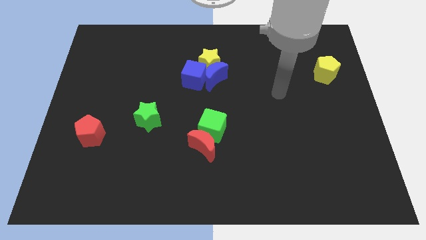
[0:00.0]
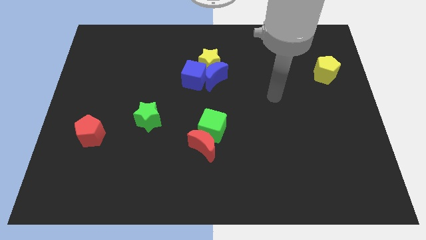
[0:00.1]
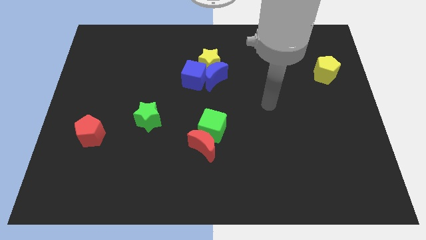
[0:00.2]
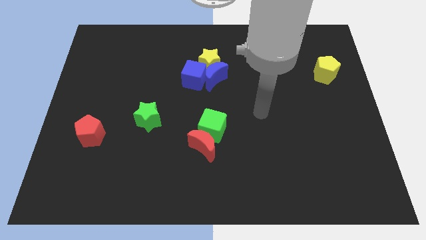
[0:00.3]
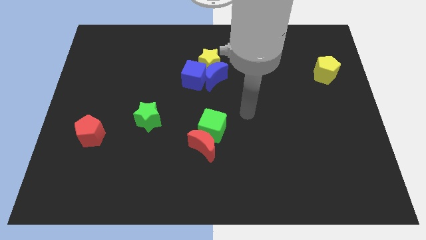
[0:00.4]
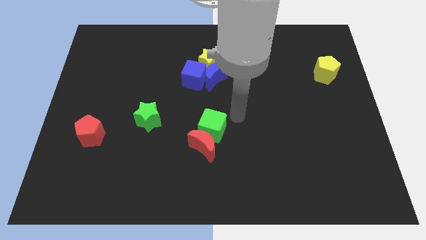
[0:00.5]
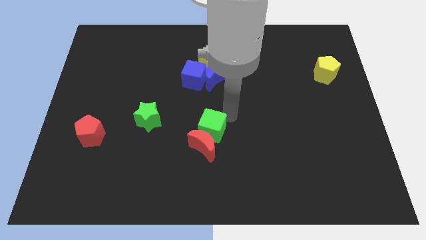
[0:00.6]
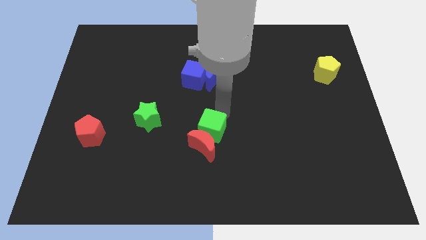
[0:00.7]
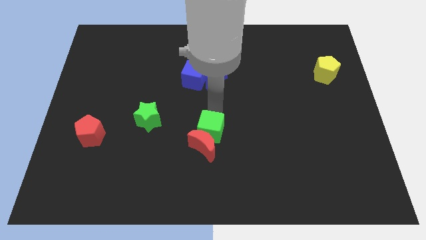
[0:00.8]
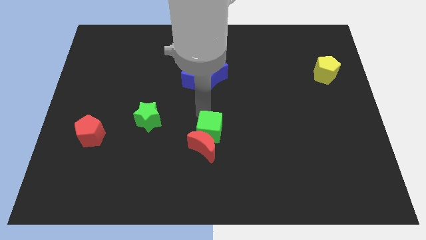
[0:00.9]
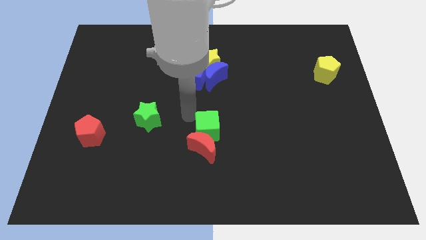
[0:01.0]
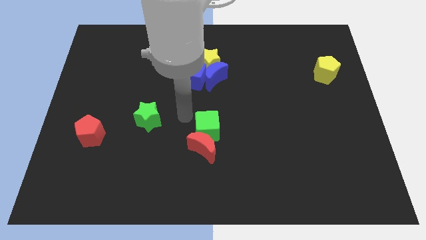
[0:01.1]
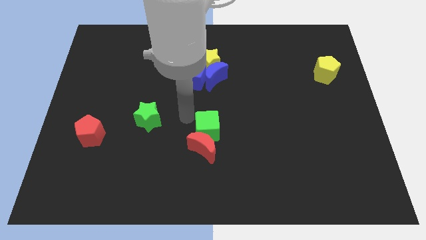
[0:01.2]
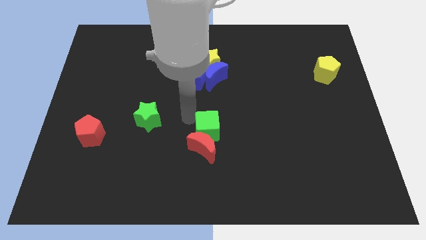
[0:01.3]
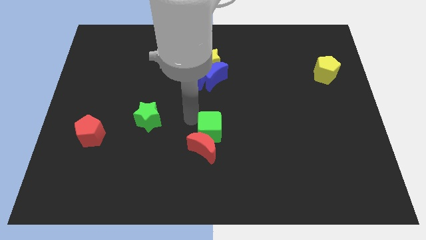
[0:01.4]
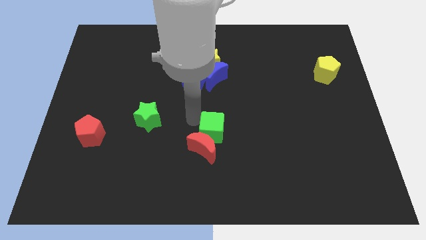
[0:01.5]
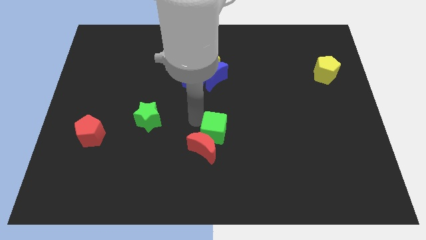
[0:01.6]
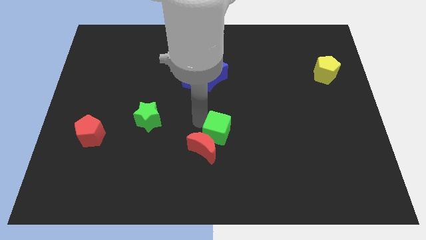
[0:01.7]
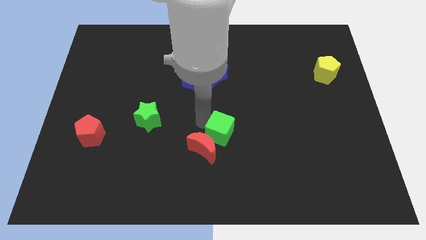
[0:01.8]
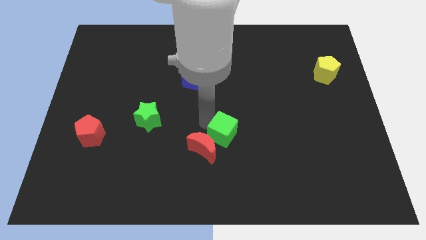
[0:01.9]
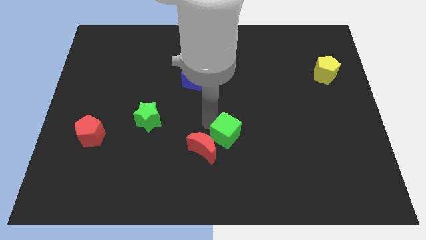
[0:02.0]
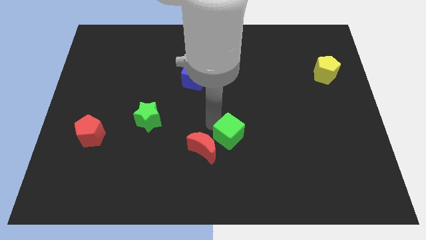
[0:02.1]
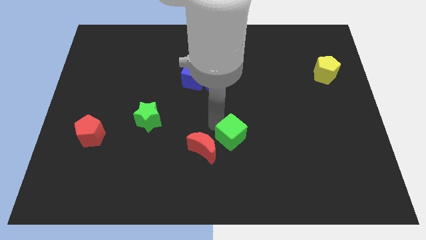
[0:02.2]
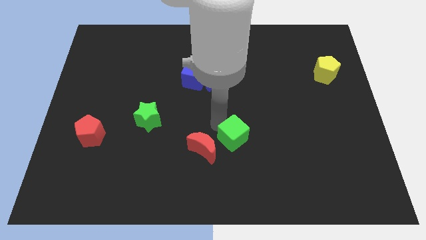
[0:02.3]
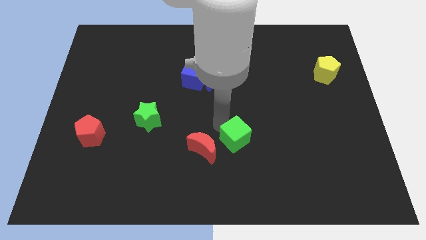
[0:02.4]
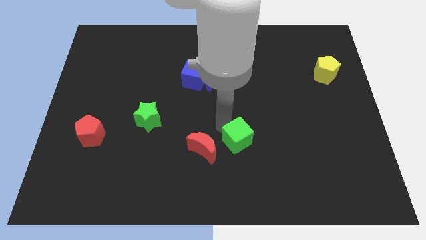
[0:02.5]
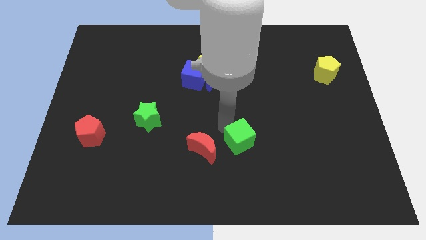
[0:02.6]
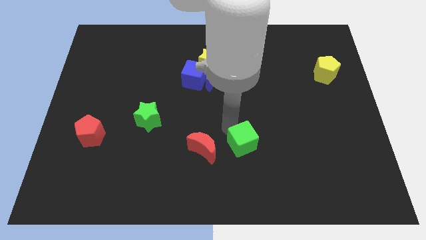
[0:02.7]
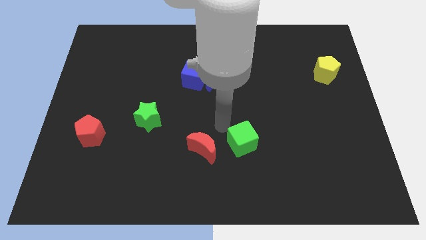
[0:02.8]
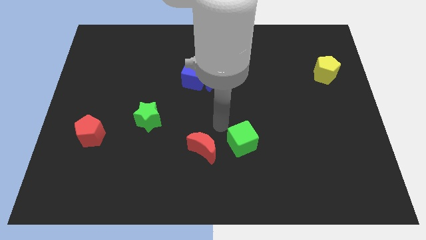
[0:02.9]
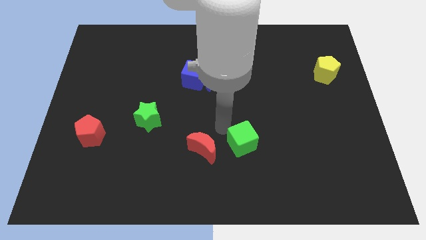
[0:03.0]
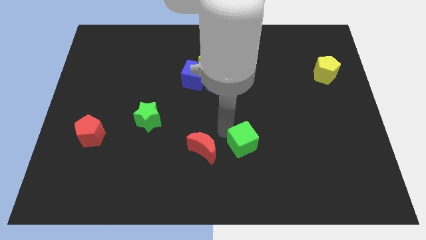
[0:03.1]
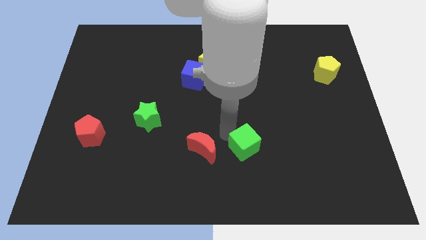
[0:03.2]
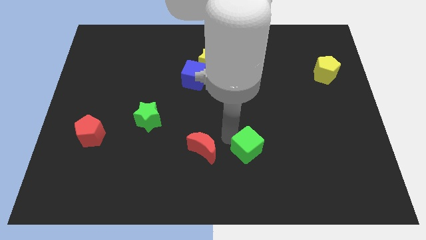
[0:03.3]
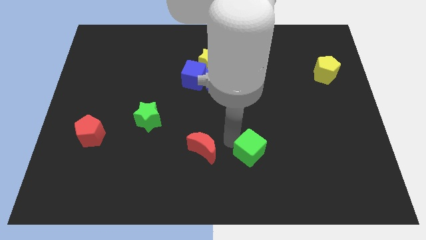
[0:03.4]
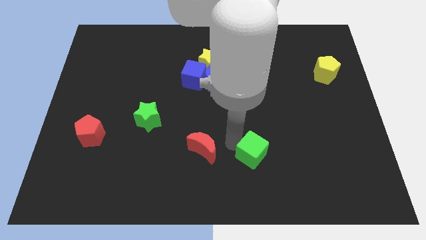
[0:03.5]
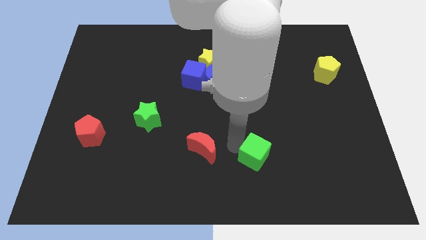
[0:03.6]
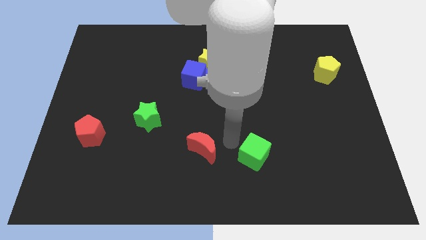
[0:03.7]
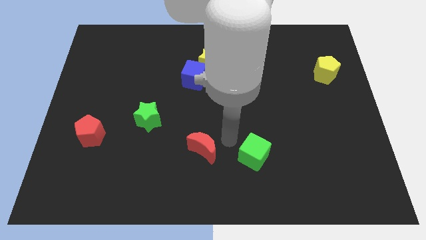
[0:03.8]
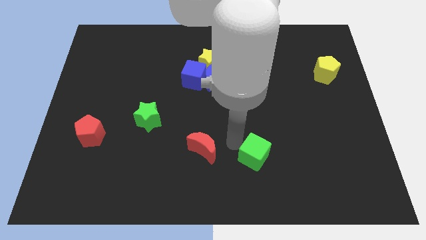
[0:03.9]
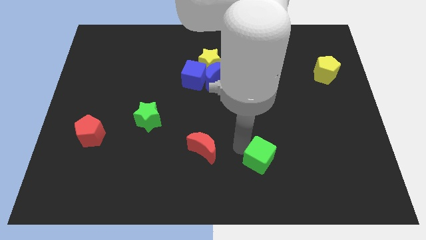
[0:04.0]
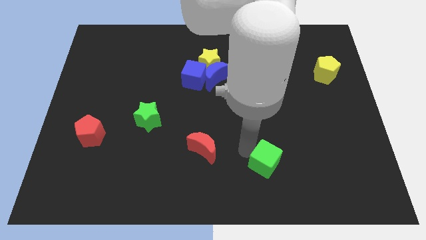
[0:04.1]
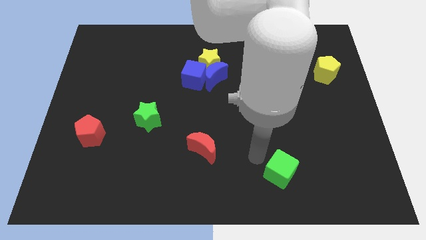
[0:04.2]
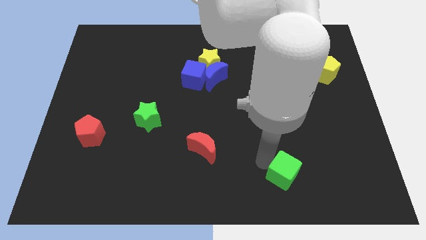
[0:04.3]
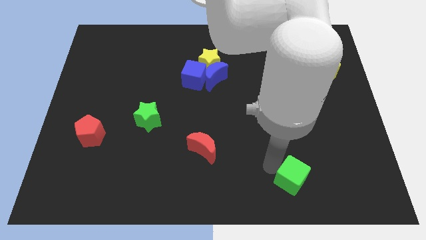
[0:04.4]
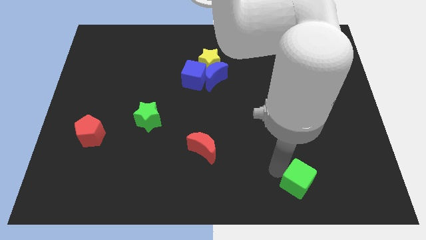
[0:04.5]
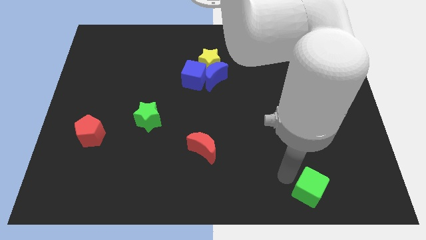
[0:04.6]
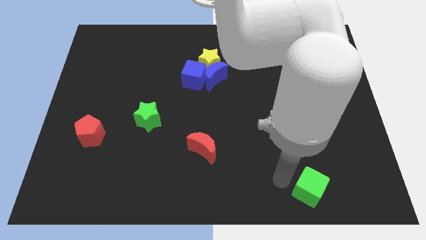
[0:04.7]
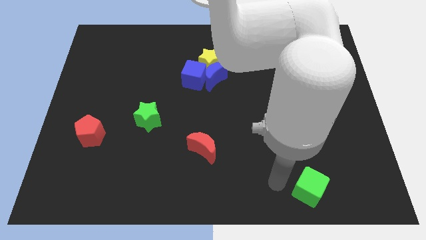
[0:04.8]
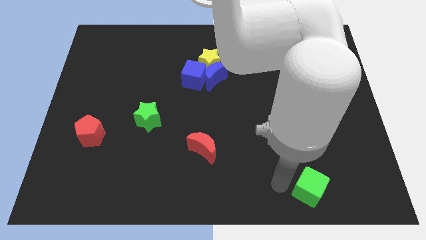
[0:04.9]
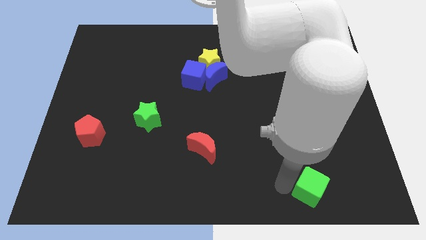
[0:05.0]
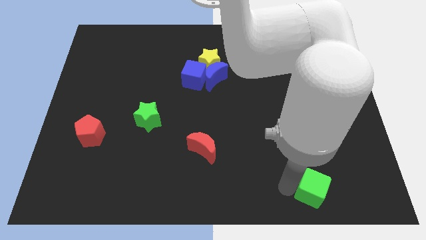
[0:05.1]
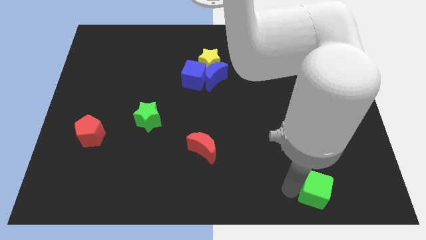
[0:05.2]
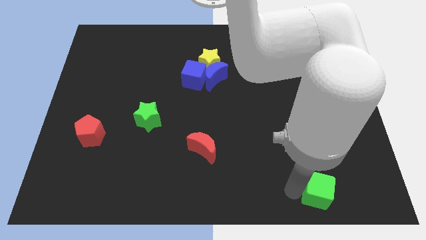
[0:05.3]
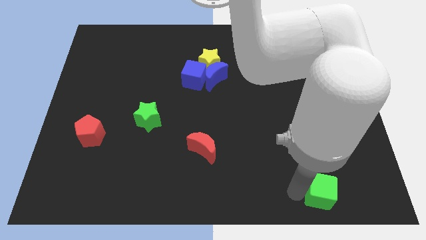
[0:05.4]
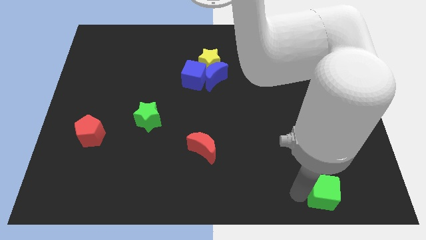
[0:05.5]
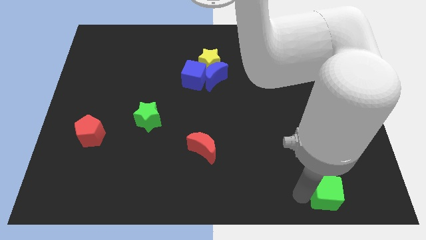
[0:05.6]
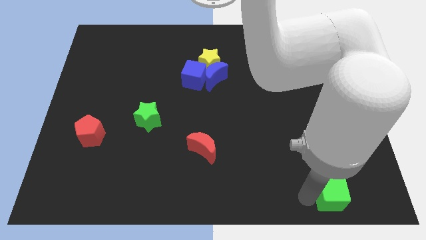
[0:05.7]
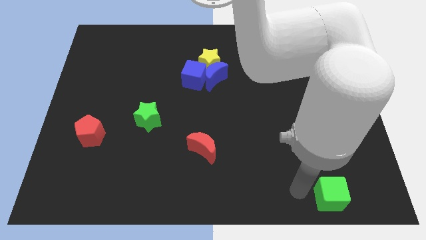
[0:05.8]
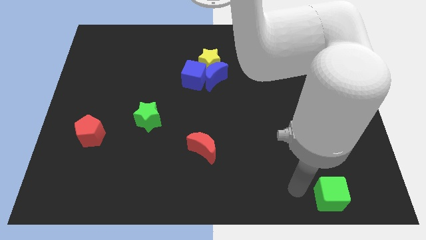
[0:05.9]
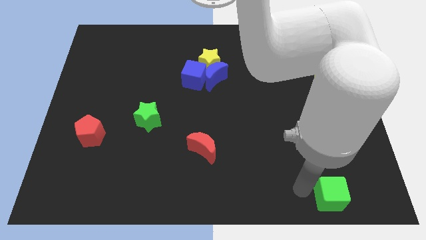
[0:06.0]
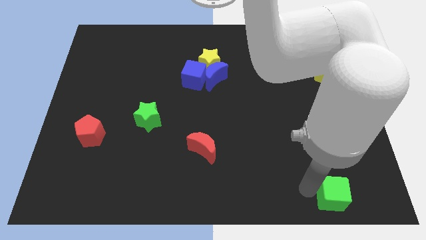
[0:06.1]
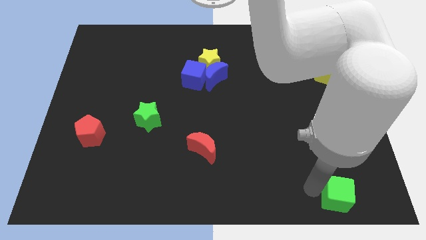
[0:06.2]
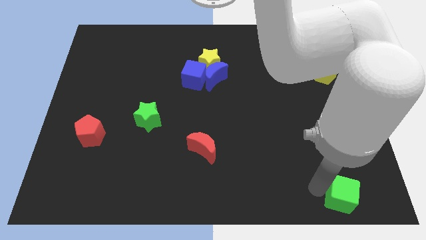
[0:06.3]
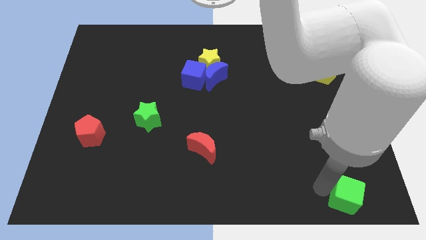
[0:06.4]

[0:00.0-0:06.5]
slide the green cube to the bottom right corner
